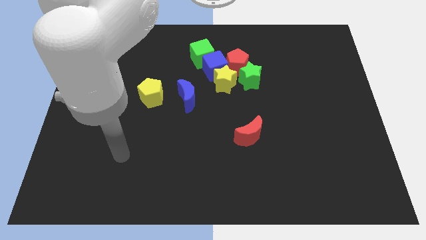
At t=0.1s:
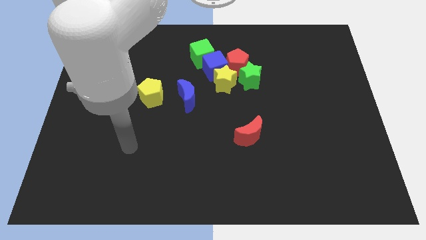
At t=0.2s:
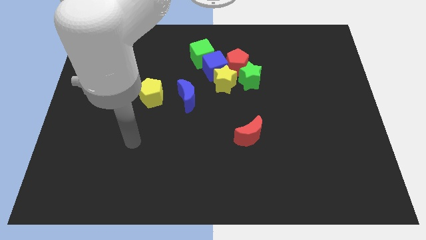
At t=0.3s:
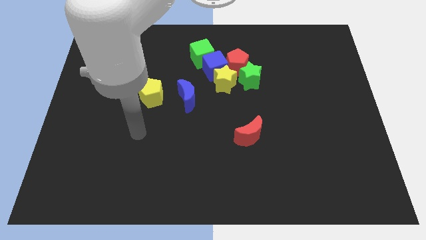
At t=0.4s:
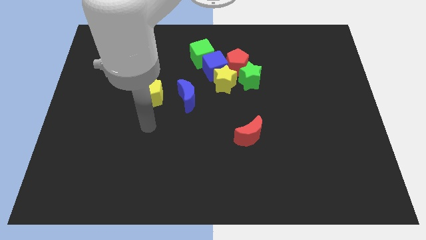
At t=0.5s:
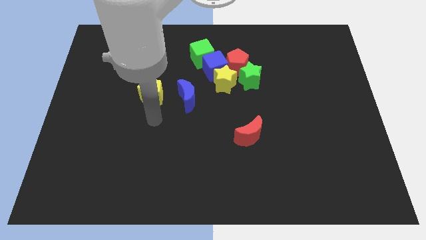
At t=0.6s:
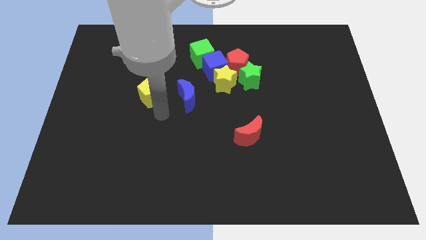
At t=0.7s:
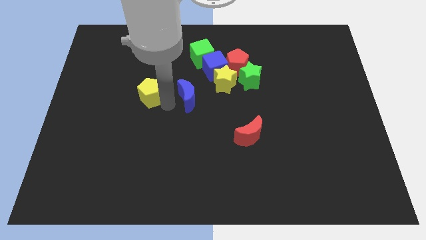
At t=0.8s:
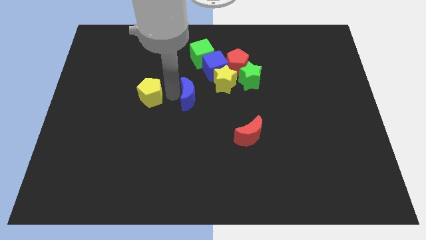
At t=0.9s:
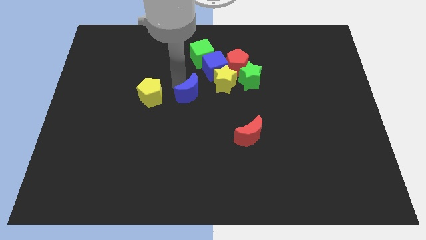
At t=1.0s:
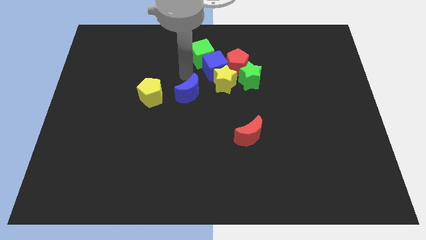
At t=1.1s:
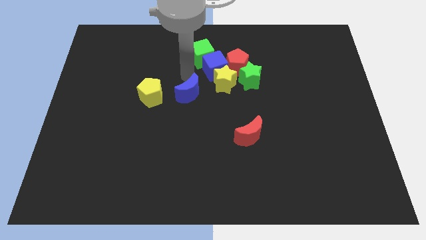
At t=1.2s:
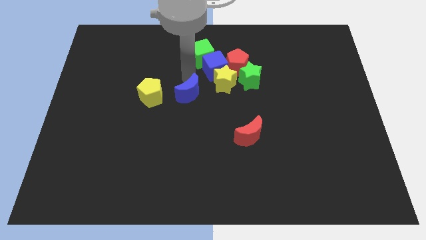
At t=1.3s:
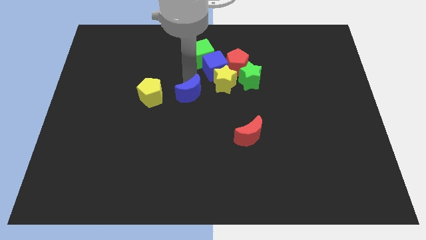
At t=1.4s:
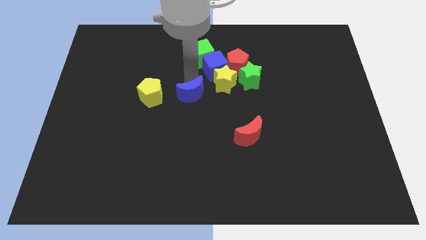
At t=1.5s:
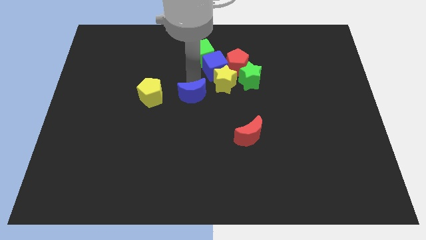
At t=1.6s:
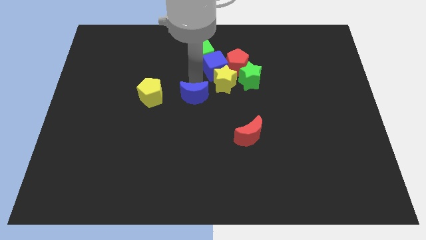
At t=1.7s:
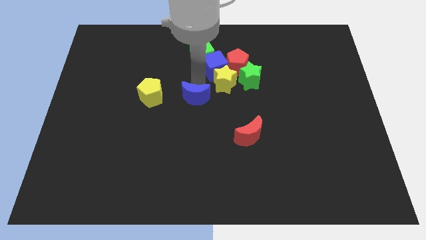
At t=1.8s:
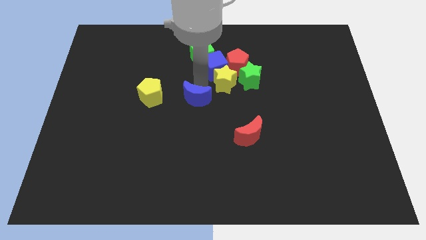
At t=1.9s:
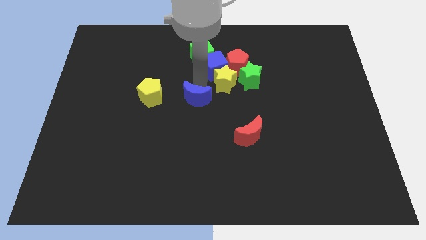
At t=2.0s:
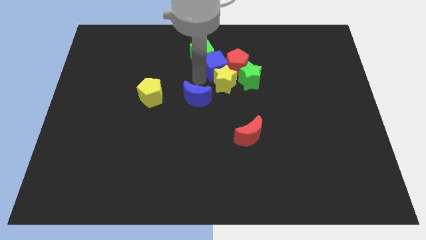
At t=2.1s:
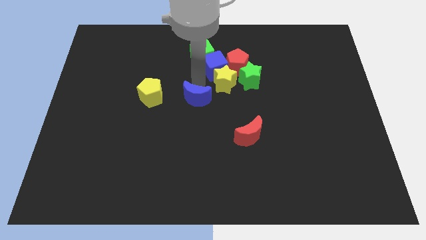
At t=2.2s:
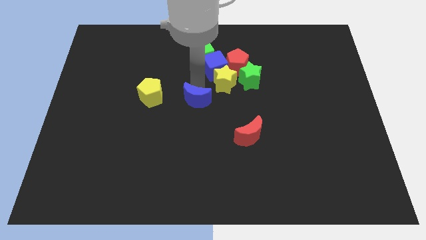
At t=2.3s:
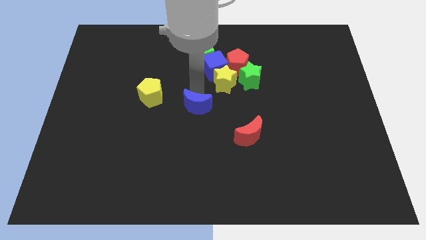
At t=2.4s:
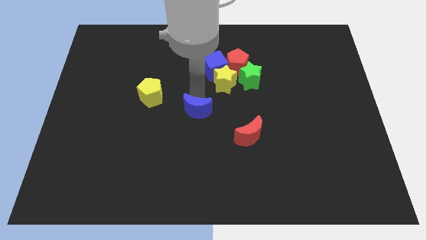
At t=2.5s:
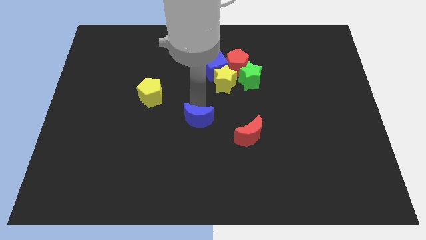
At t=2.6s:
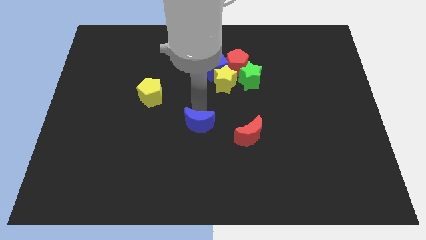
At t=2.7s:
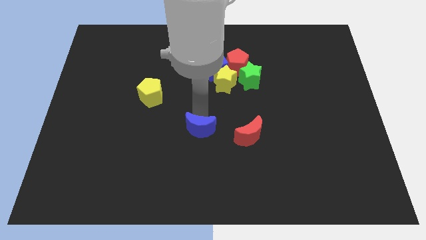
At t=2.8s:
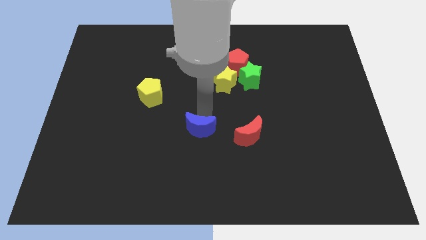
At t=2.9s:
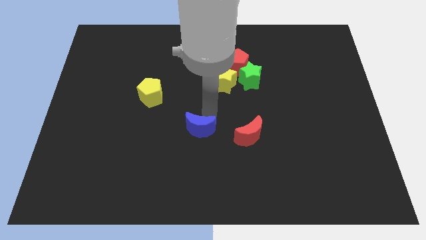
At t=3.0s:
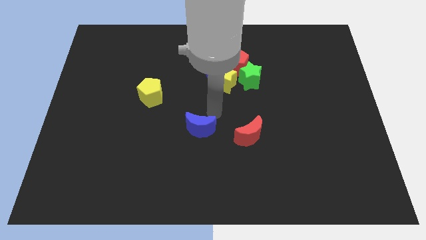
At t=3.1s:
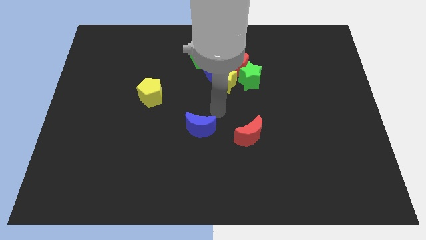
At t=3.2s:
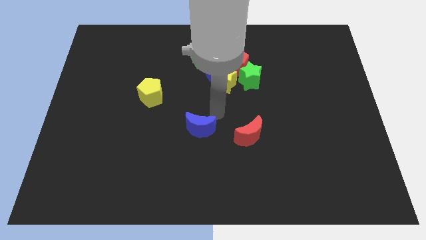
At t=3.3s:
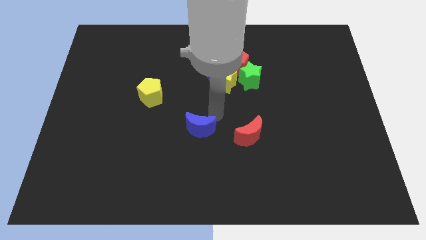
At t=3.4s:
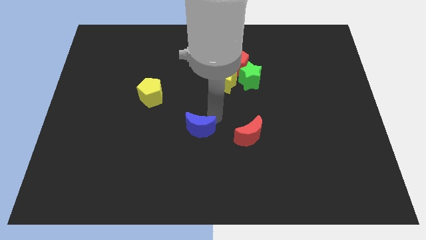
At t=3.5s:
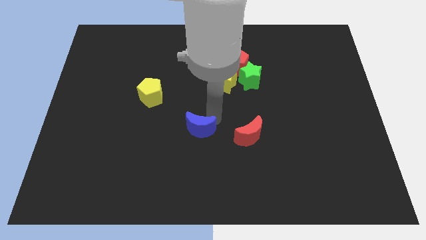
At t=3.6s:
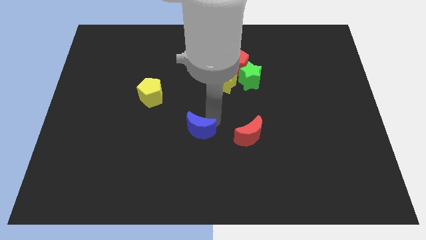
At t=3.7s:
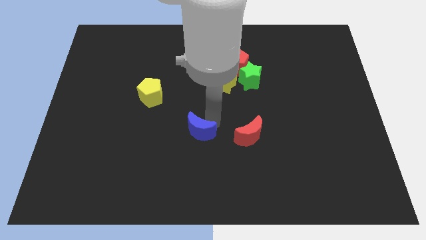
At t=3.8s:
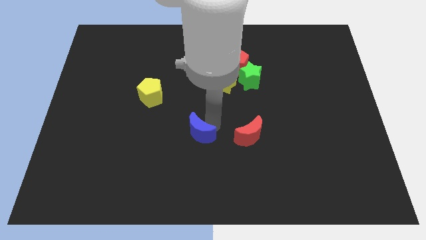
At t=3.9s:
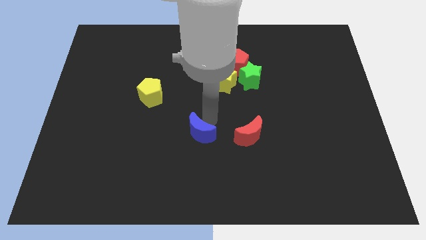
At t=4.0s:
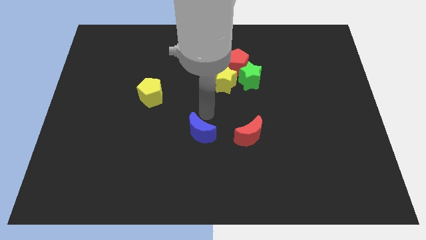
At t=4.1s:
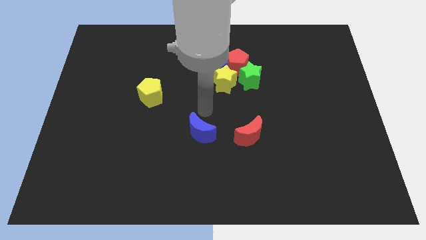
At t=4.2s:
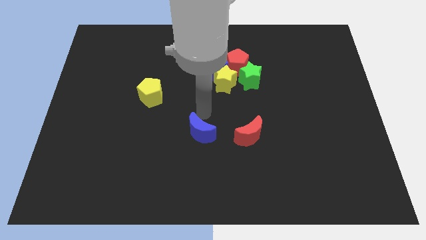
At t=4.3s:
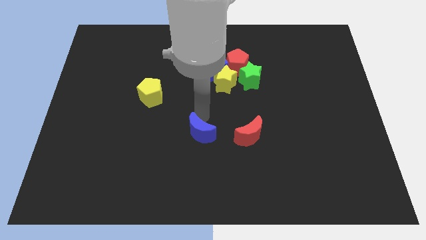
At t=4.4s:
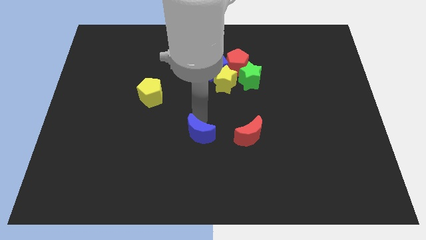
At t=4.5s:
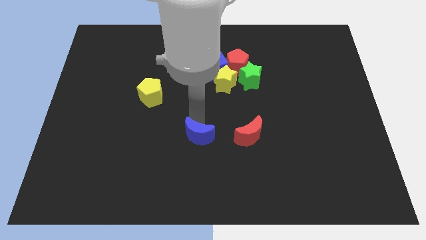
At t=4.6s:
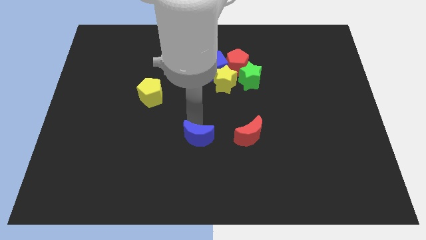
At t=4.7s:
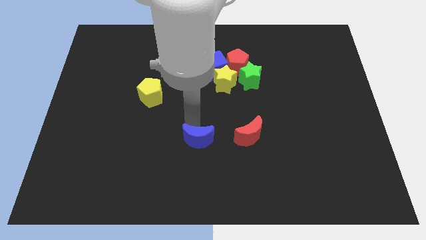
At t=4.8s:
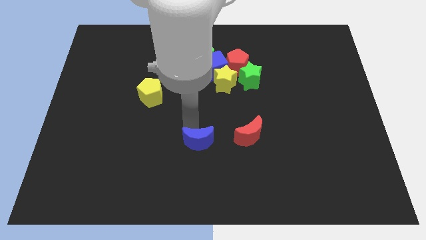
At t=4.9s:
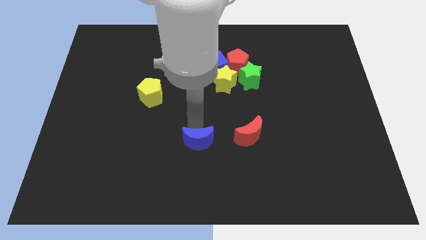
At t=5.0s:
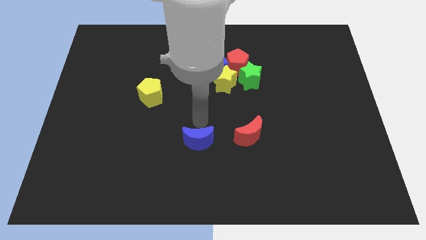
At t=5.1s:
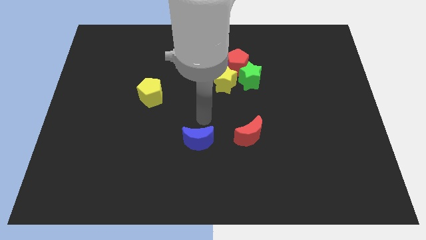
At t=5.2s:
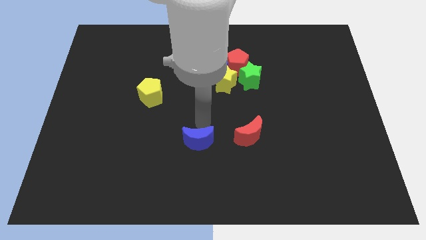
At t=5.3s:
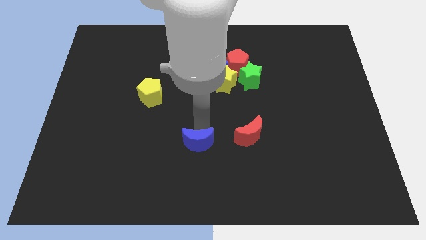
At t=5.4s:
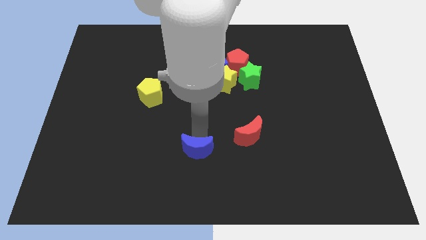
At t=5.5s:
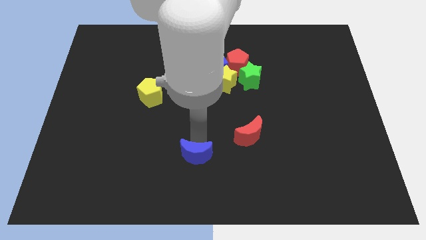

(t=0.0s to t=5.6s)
put the blue moon to the bottom side

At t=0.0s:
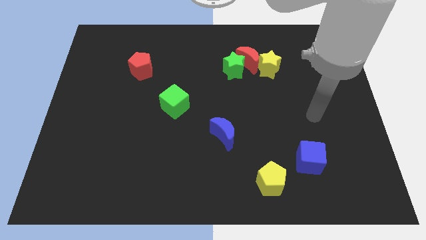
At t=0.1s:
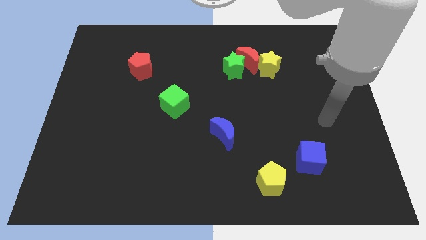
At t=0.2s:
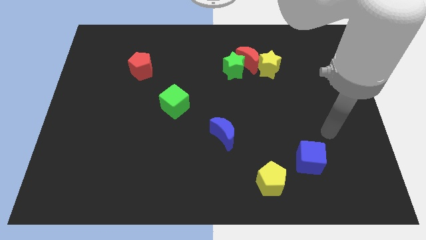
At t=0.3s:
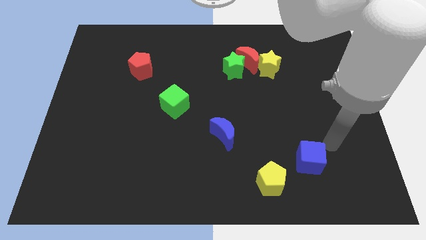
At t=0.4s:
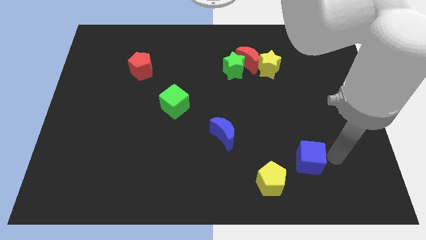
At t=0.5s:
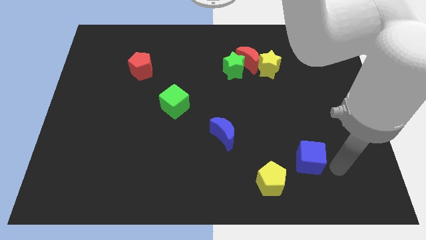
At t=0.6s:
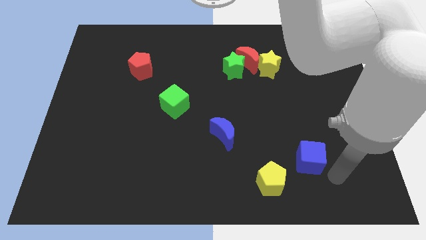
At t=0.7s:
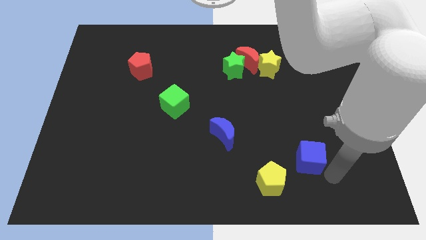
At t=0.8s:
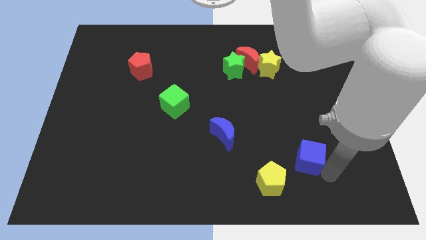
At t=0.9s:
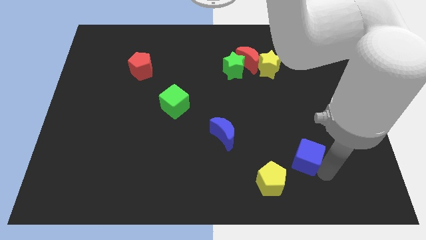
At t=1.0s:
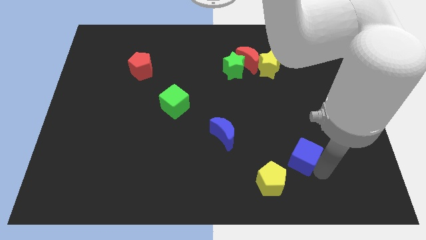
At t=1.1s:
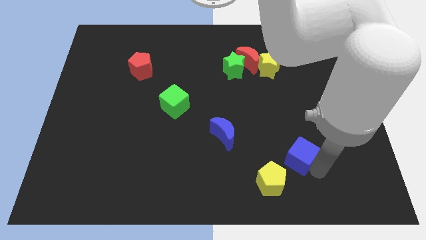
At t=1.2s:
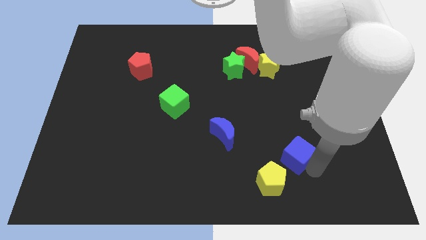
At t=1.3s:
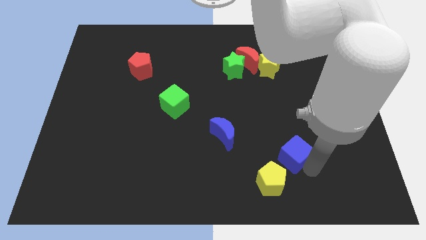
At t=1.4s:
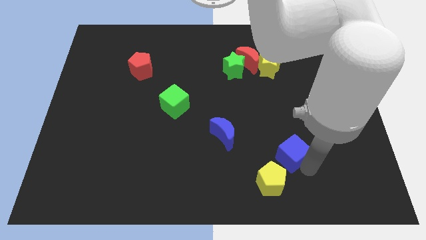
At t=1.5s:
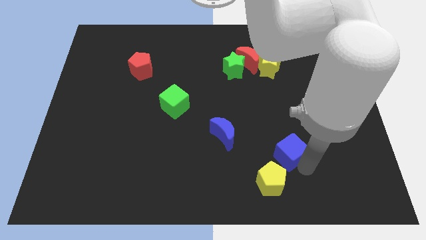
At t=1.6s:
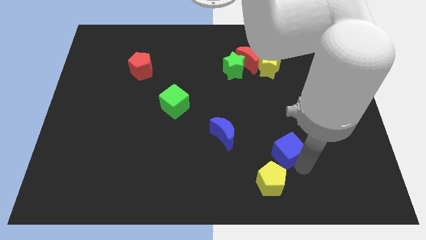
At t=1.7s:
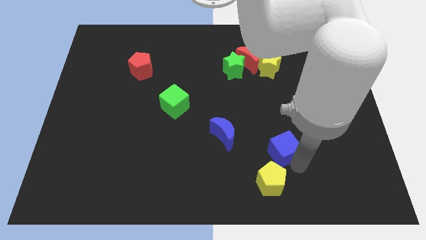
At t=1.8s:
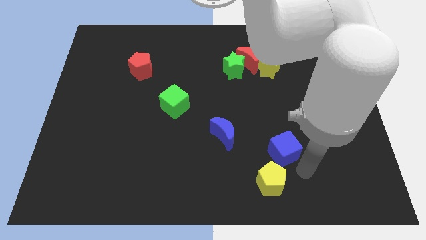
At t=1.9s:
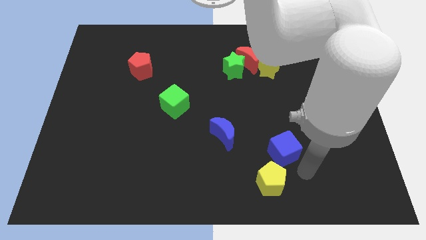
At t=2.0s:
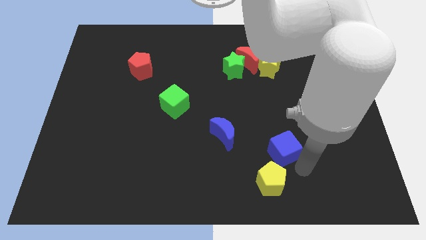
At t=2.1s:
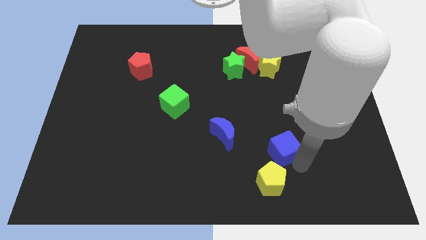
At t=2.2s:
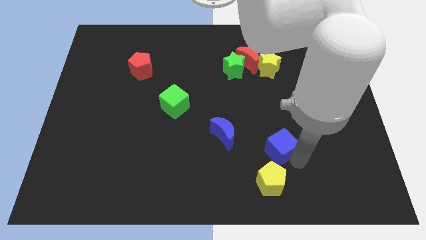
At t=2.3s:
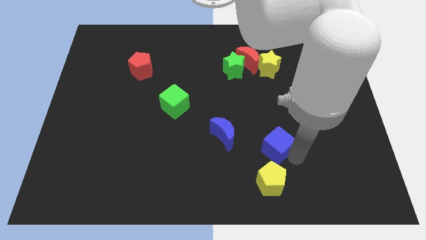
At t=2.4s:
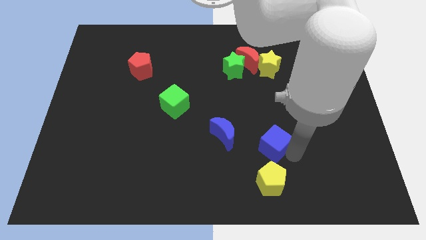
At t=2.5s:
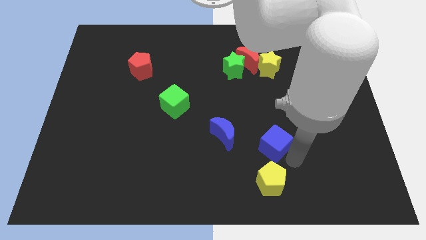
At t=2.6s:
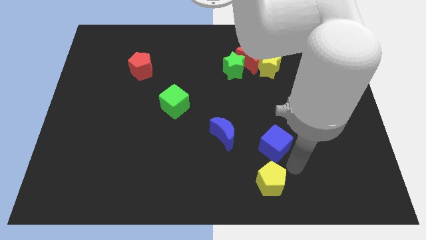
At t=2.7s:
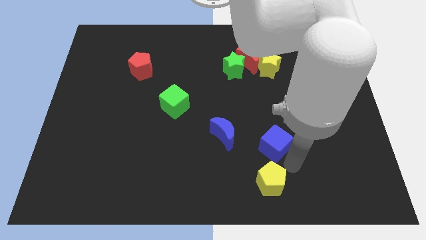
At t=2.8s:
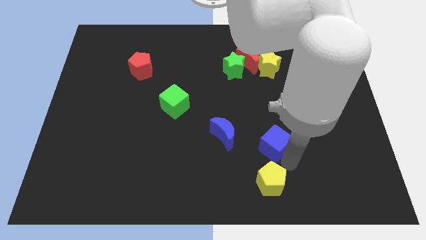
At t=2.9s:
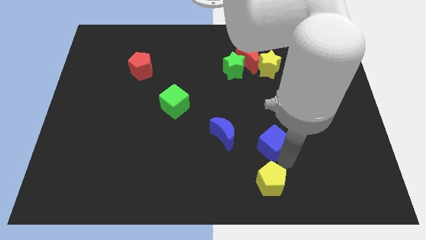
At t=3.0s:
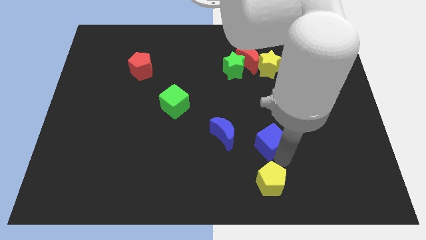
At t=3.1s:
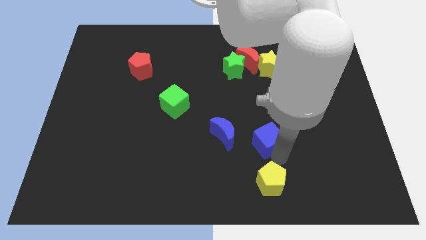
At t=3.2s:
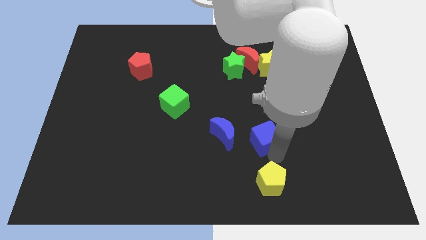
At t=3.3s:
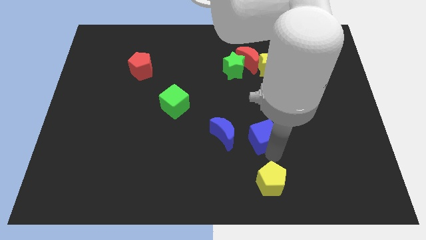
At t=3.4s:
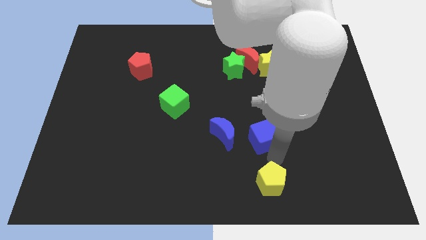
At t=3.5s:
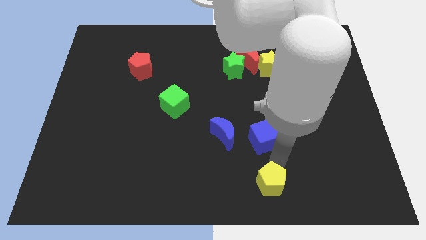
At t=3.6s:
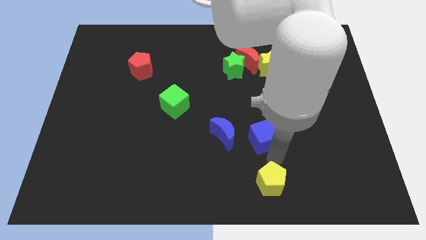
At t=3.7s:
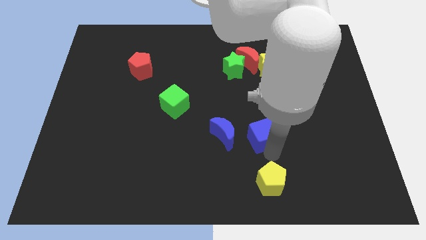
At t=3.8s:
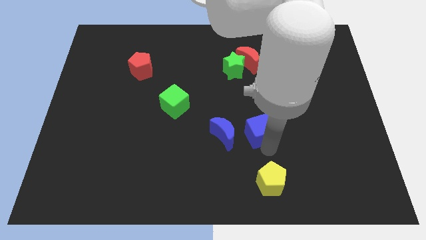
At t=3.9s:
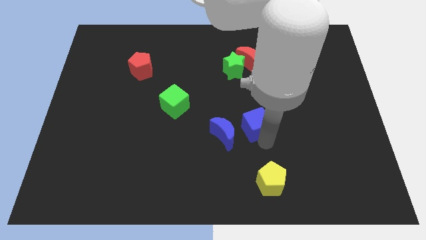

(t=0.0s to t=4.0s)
move the blue cube to the middle of the board
